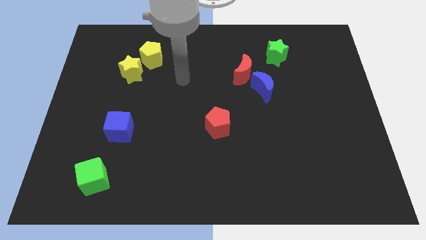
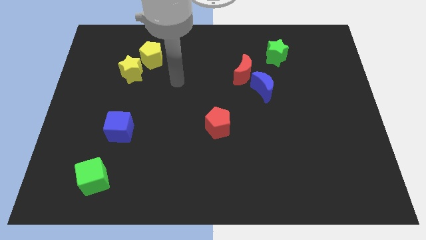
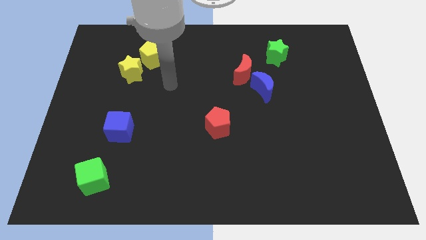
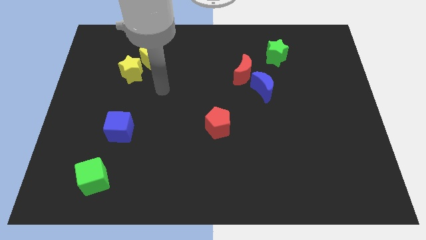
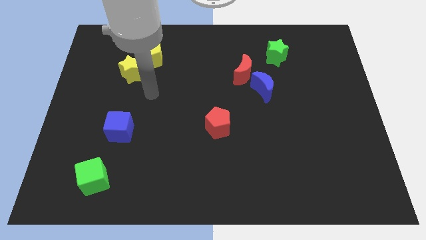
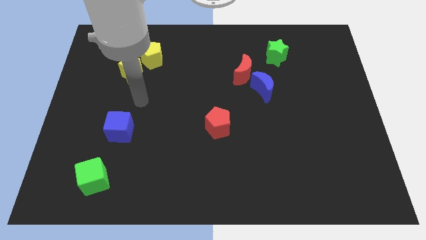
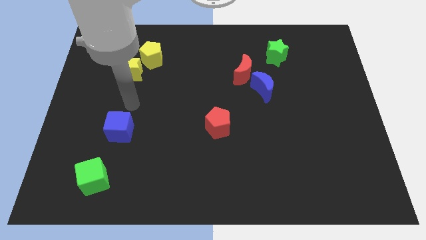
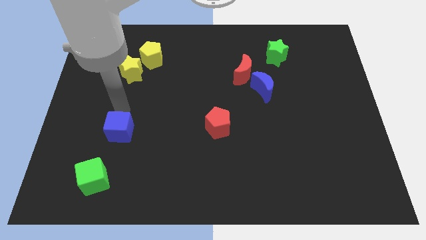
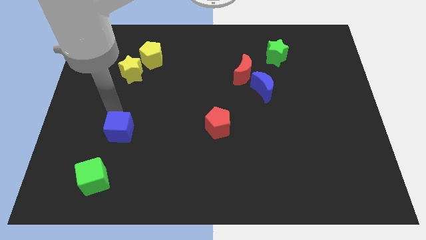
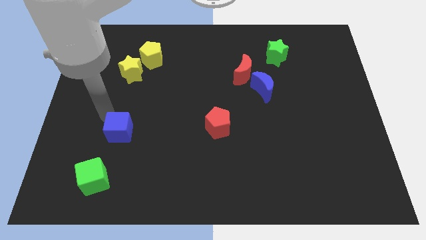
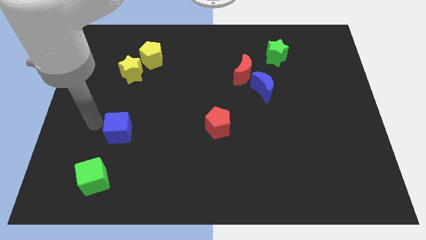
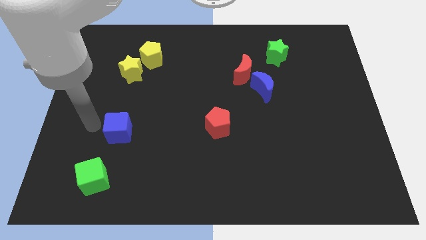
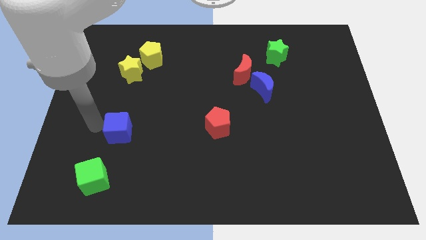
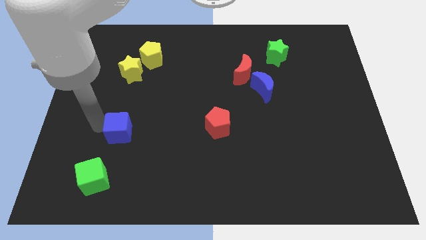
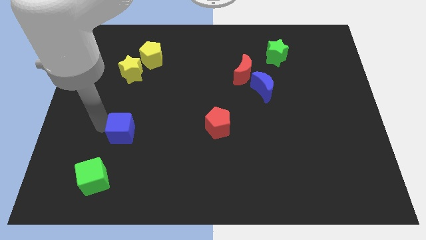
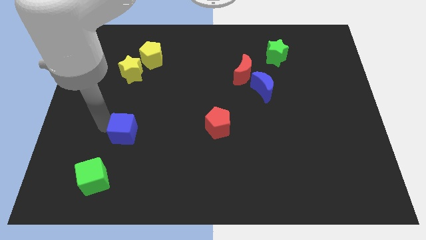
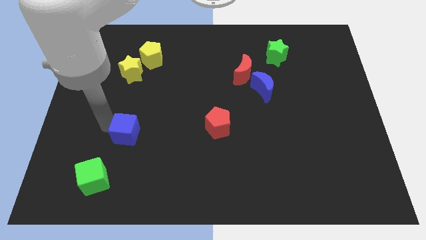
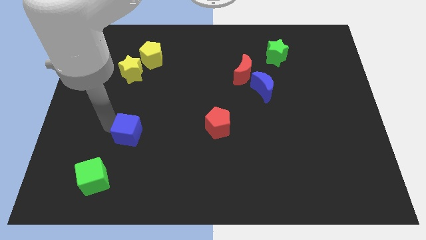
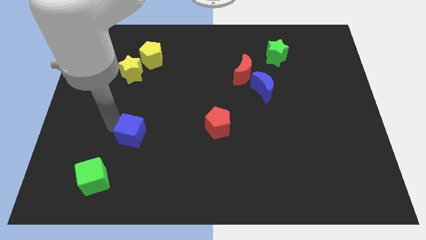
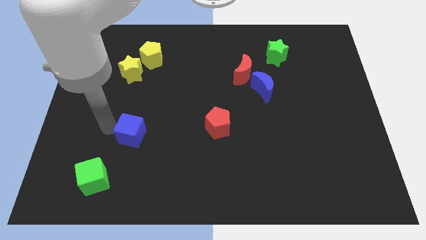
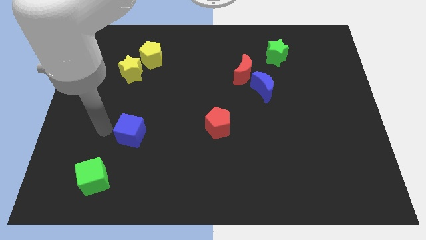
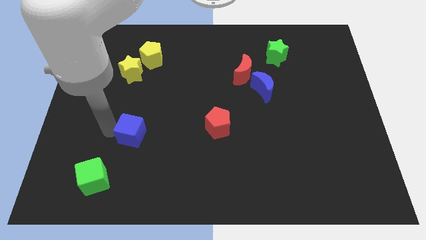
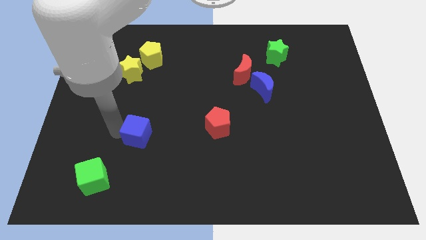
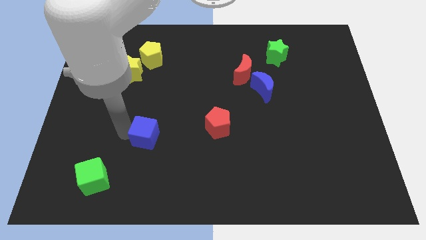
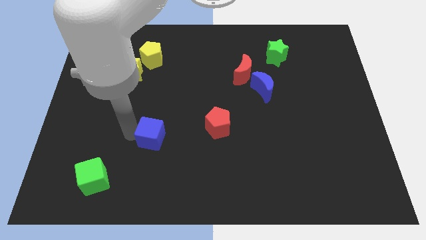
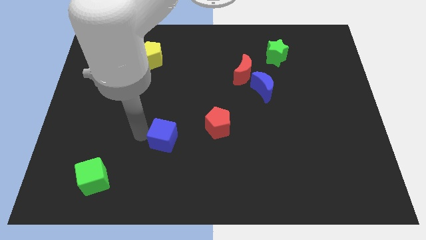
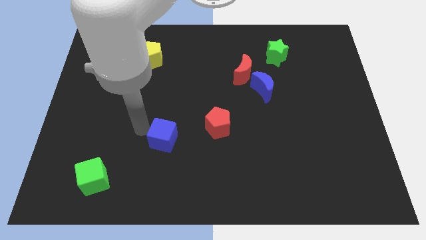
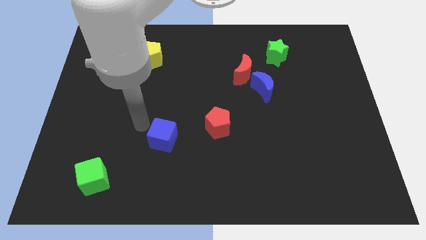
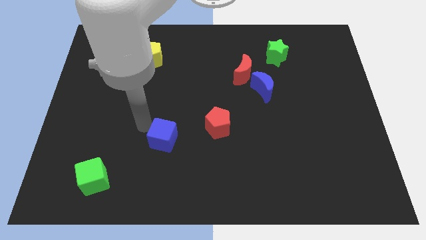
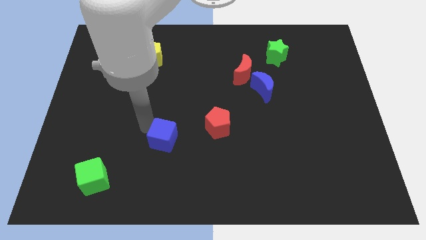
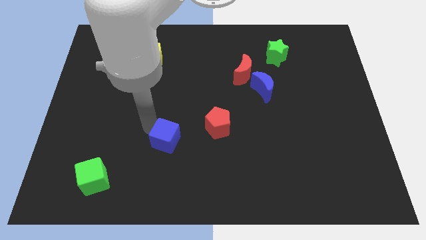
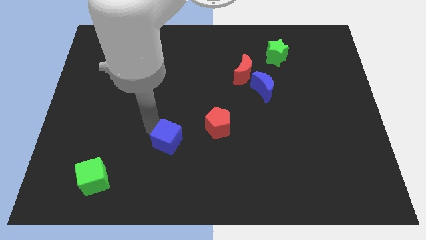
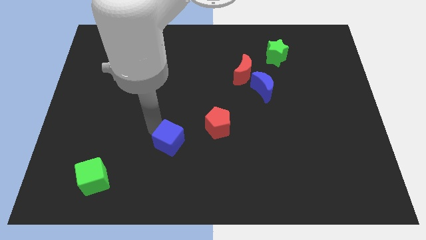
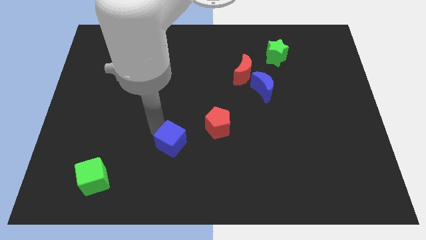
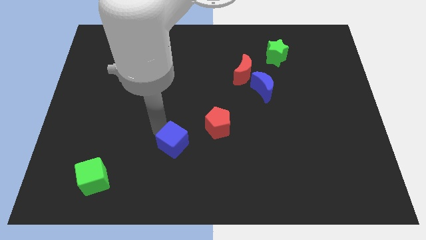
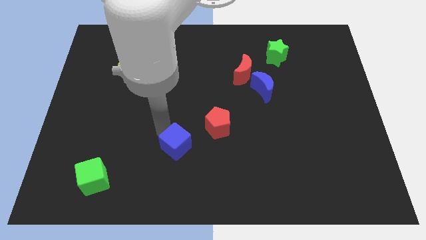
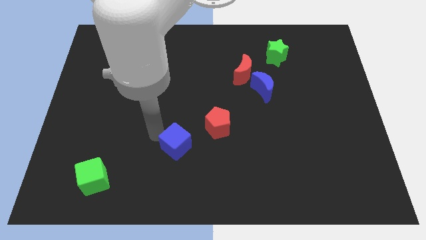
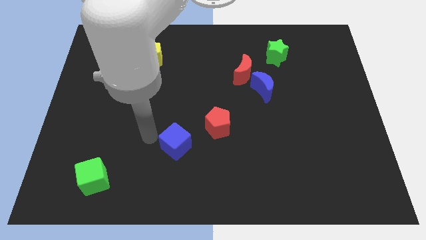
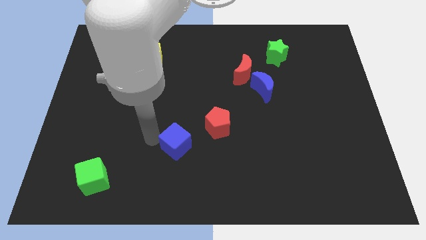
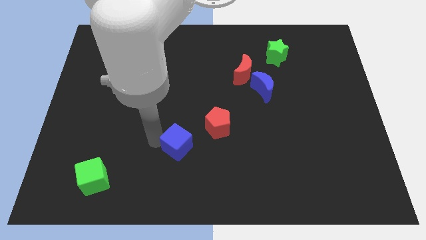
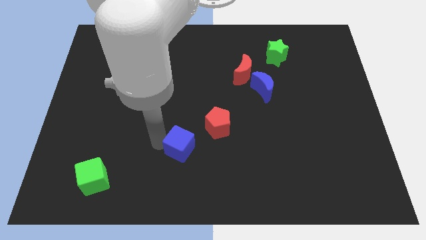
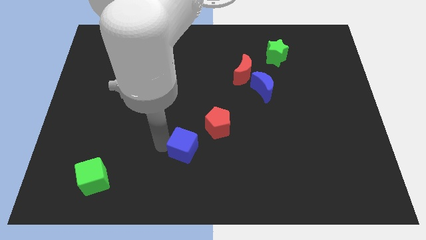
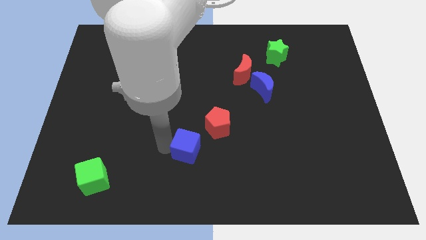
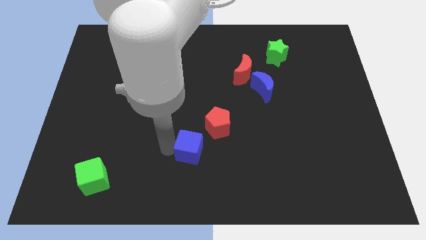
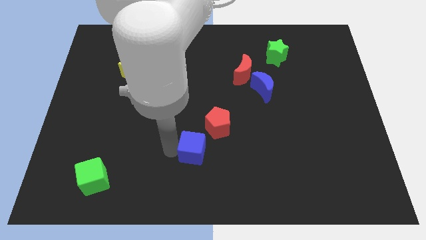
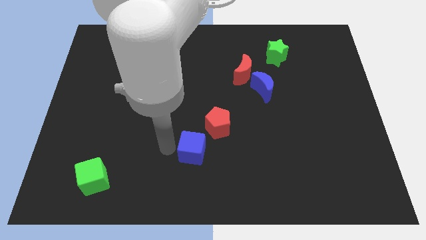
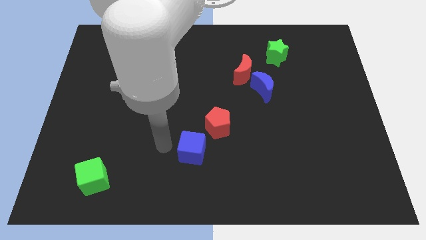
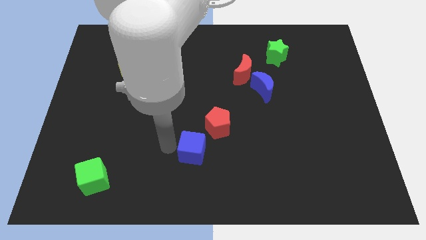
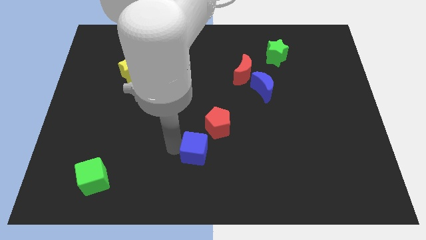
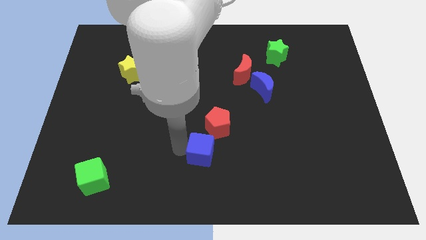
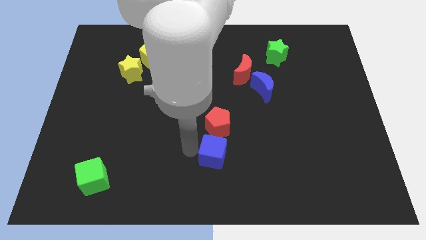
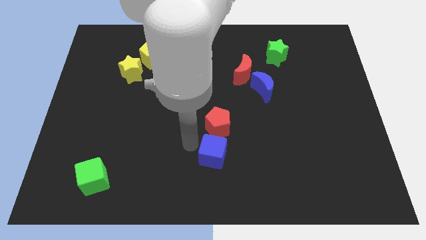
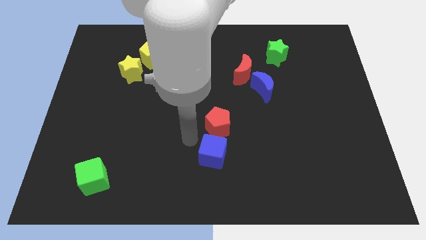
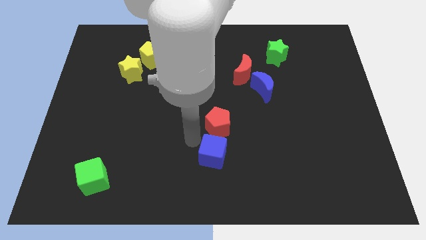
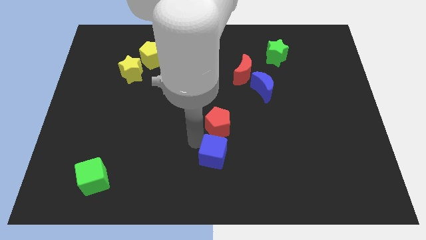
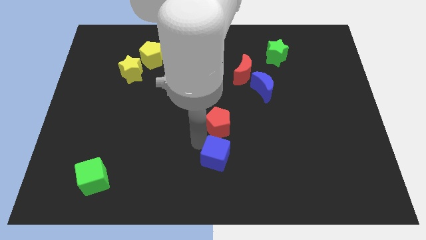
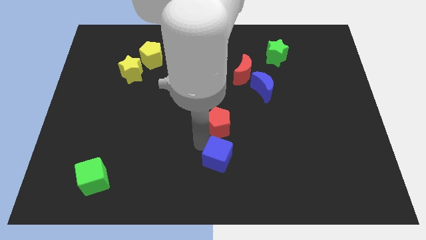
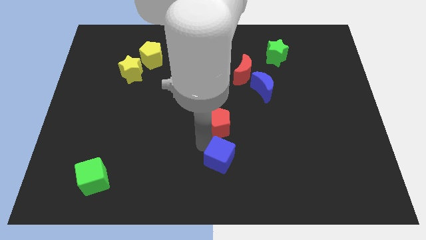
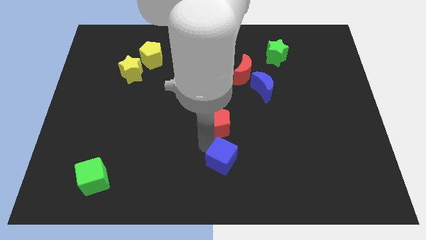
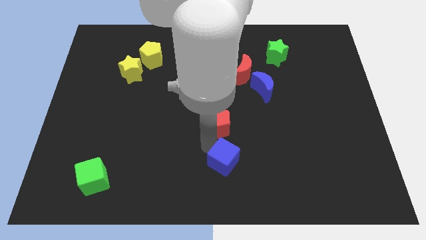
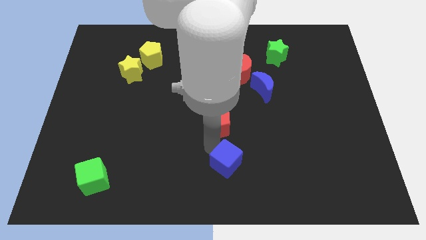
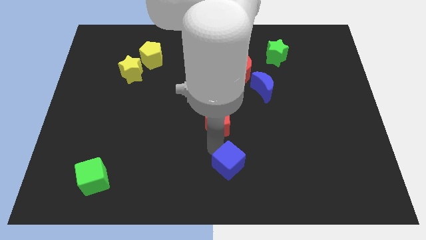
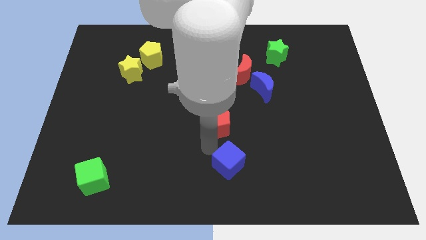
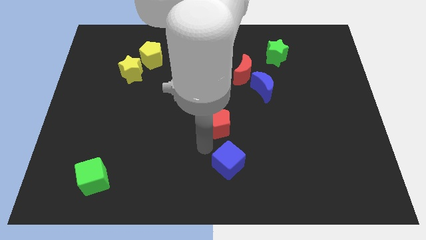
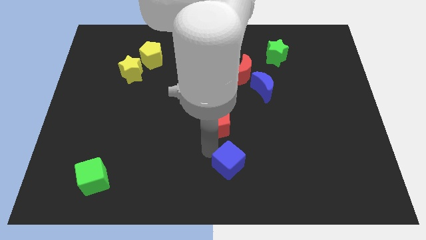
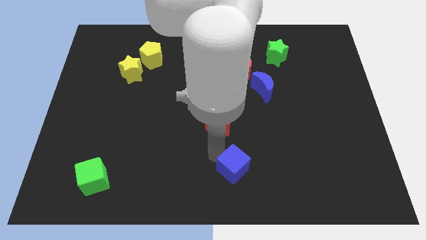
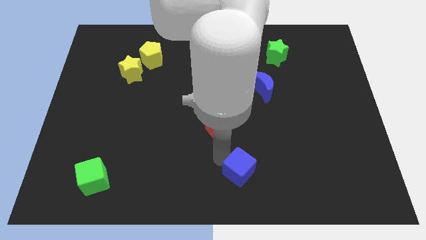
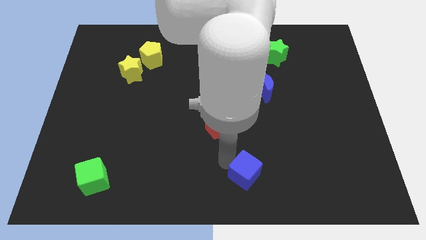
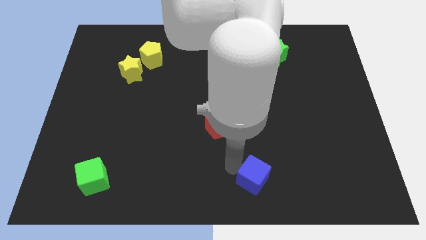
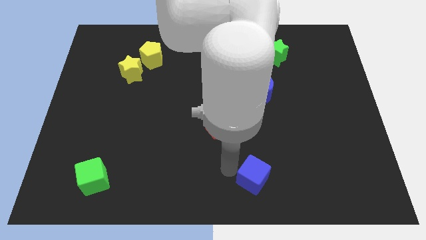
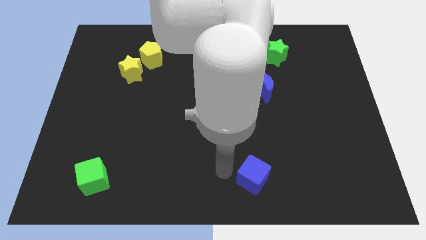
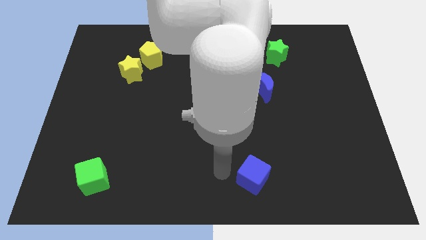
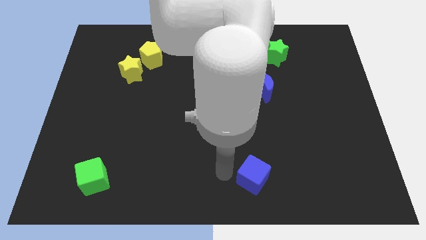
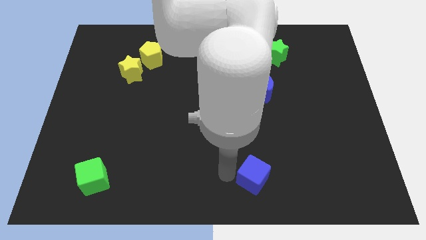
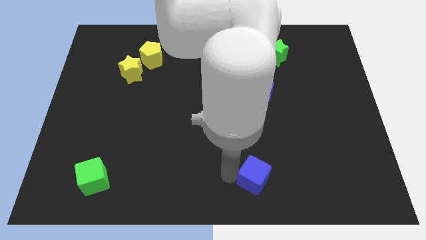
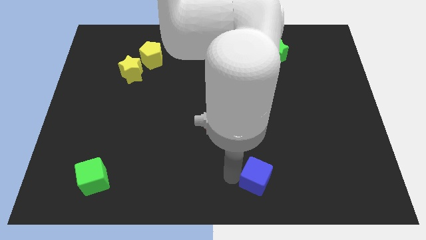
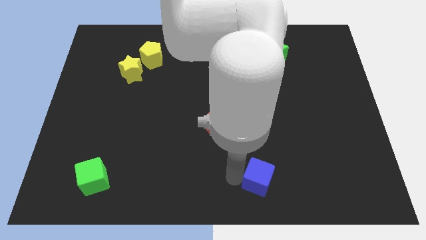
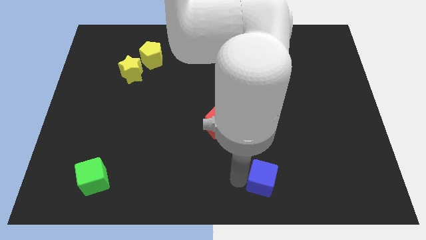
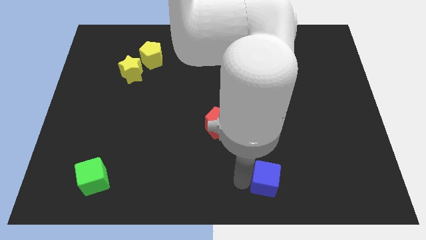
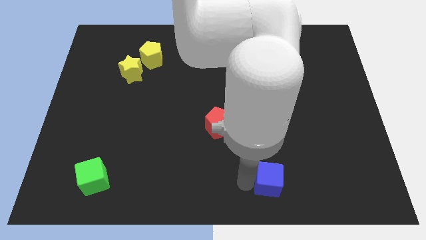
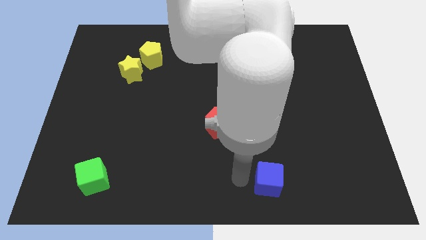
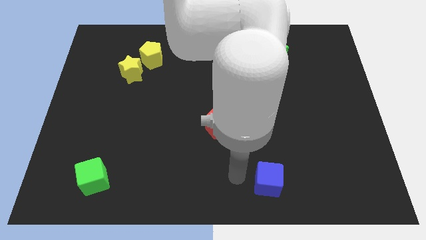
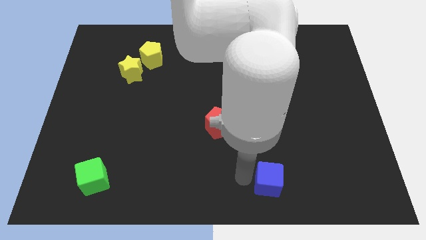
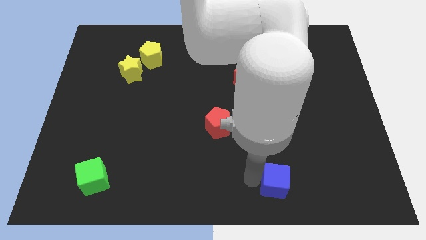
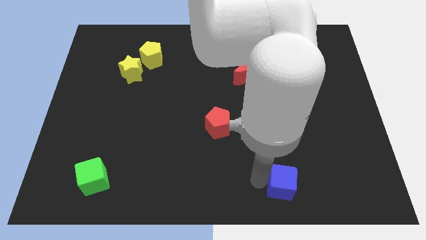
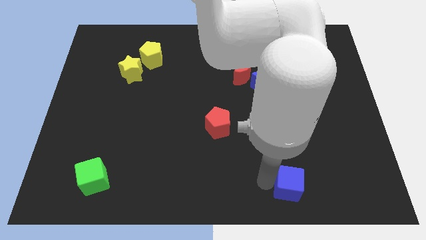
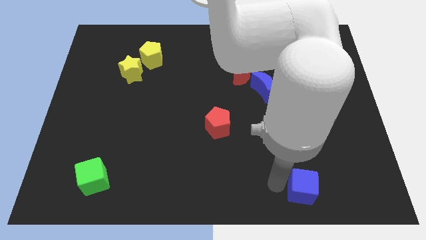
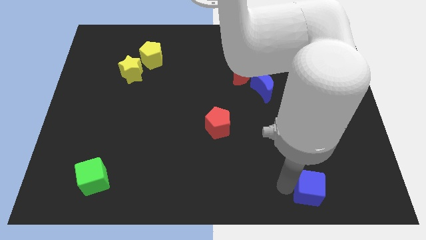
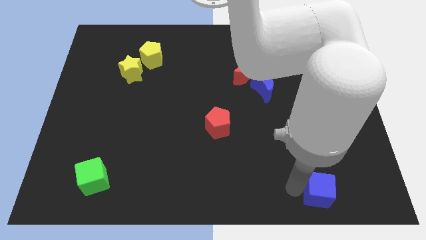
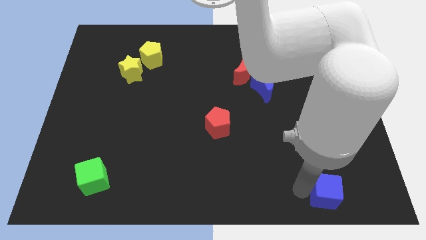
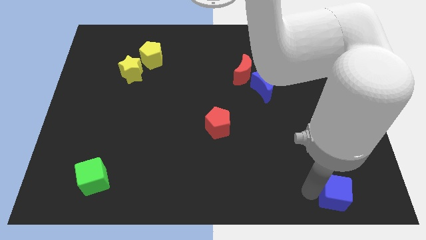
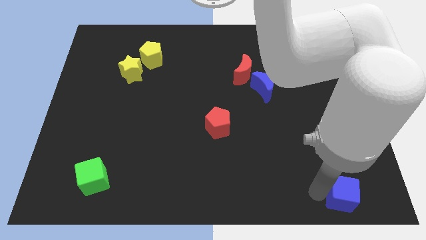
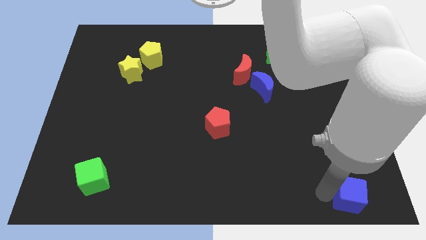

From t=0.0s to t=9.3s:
move the blue cube to the bottom right of the board
